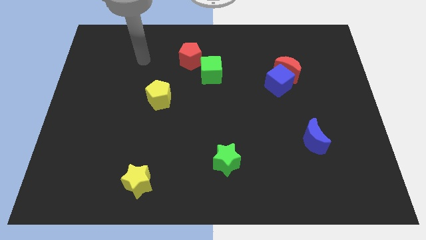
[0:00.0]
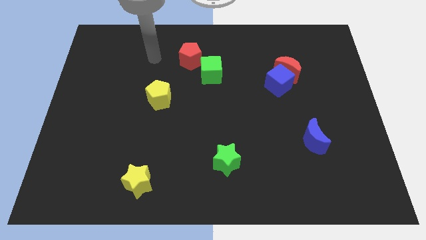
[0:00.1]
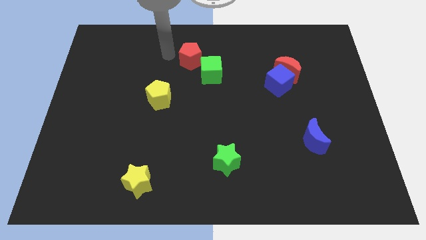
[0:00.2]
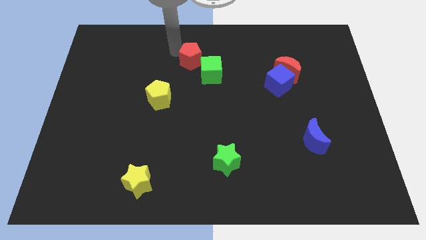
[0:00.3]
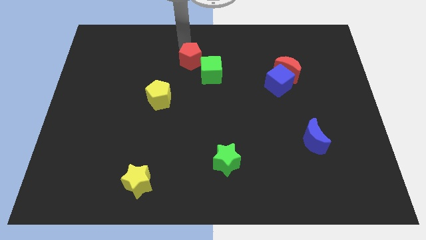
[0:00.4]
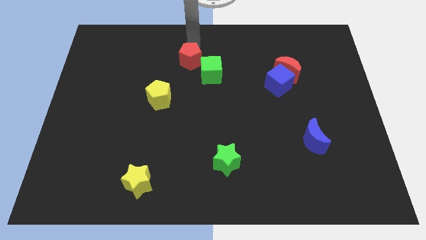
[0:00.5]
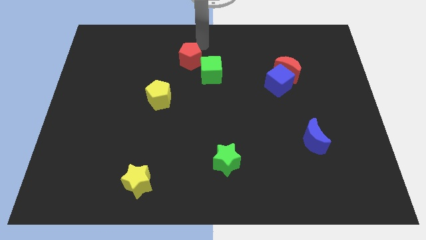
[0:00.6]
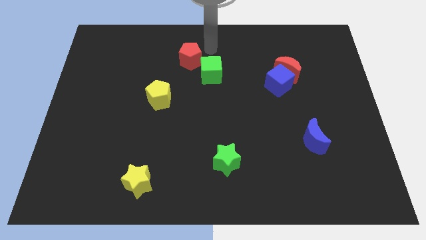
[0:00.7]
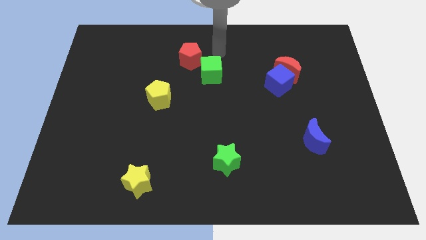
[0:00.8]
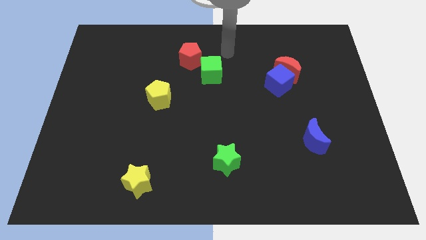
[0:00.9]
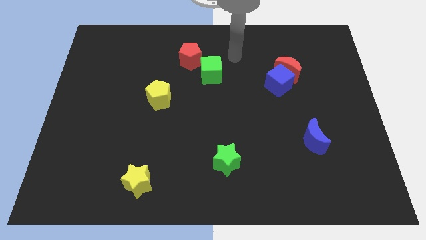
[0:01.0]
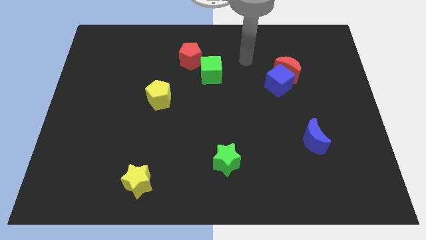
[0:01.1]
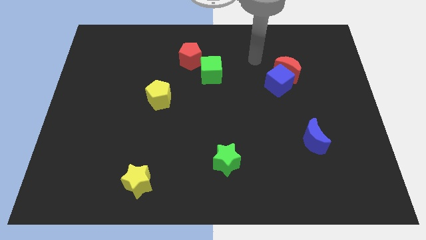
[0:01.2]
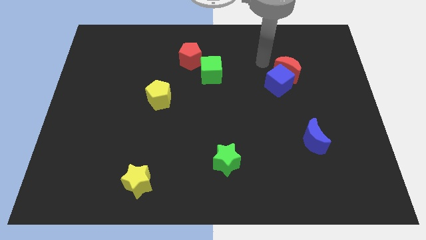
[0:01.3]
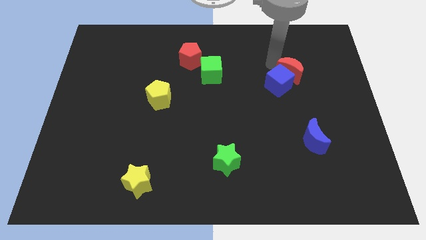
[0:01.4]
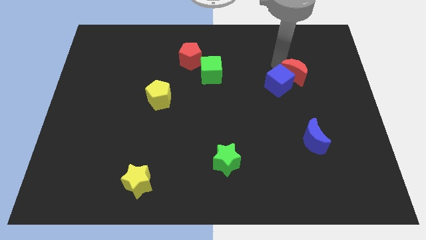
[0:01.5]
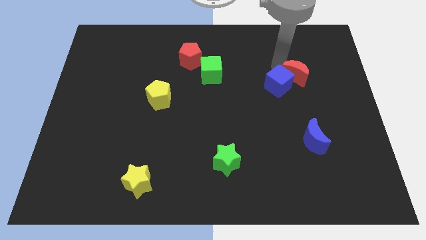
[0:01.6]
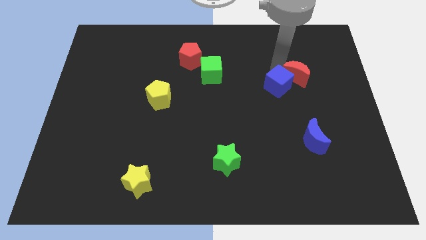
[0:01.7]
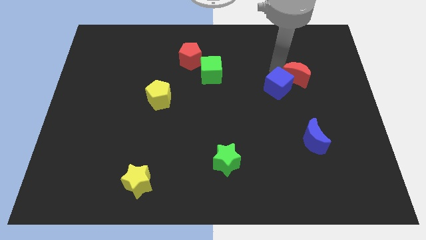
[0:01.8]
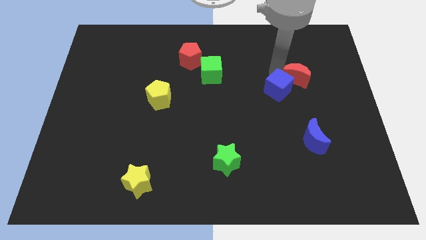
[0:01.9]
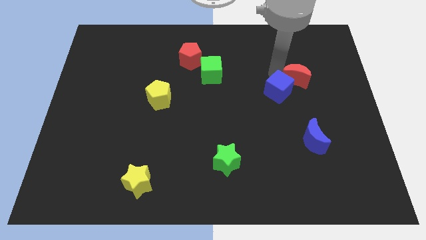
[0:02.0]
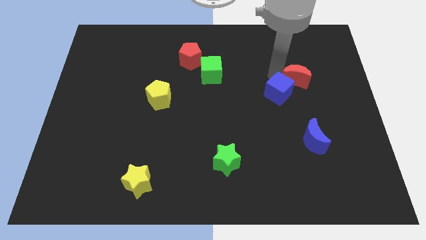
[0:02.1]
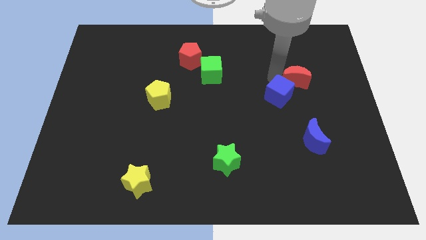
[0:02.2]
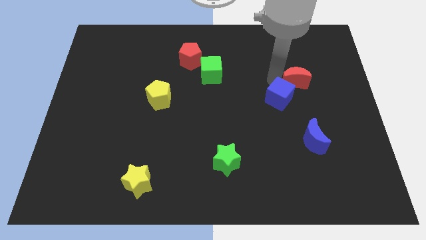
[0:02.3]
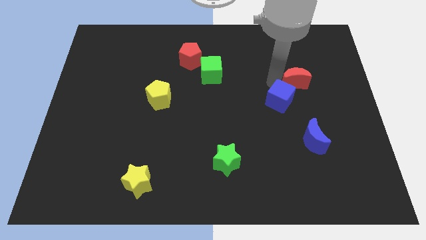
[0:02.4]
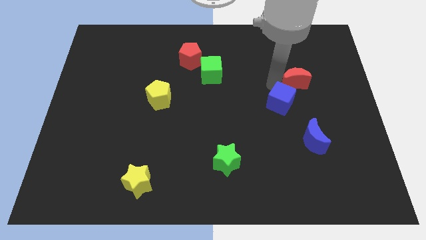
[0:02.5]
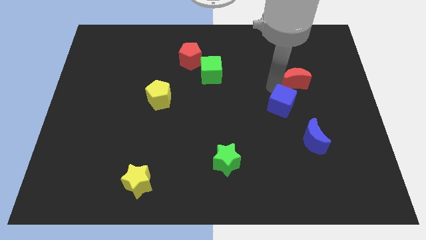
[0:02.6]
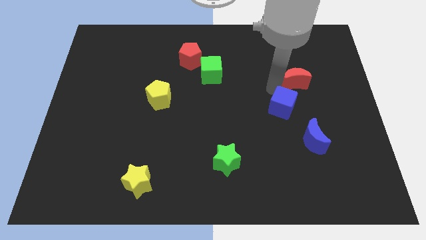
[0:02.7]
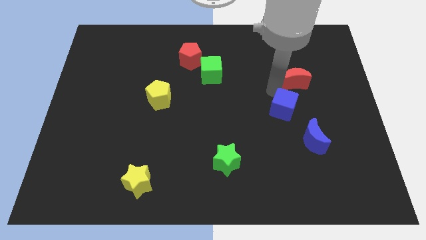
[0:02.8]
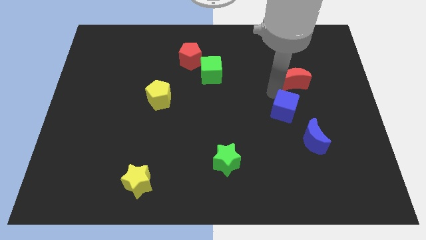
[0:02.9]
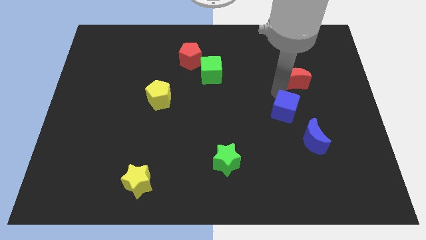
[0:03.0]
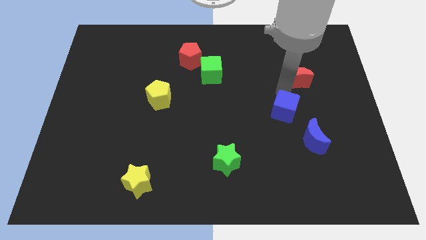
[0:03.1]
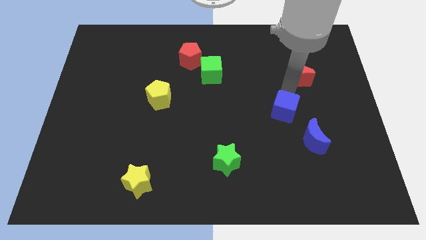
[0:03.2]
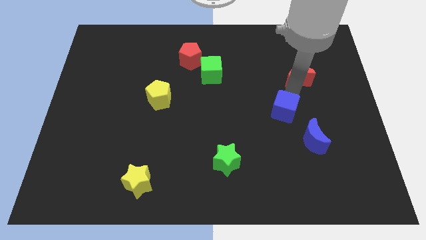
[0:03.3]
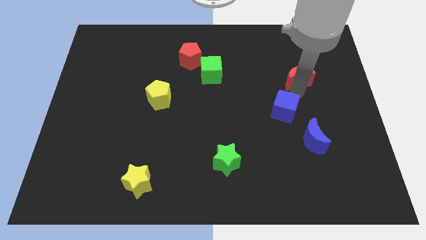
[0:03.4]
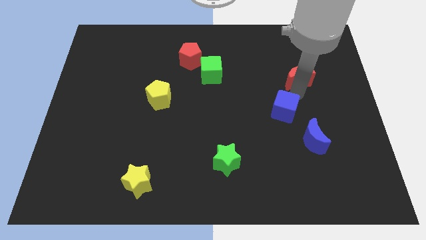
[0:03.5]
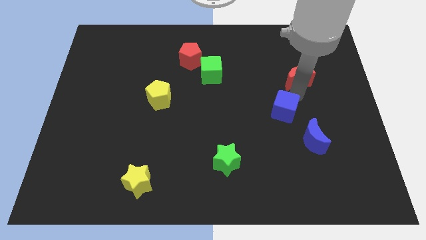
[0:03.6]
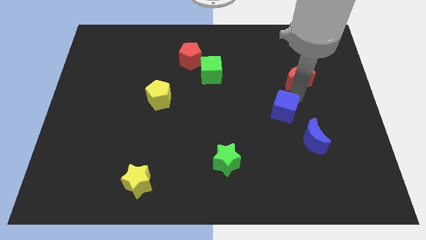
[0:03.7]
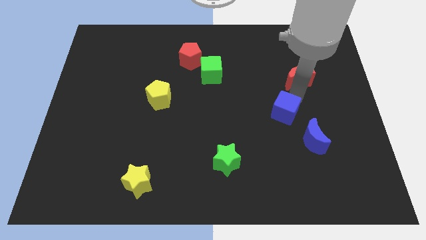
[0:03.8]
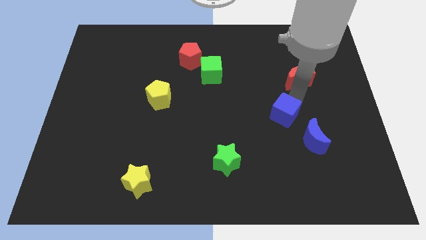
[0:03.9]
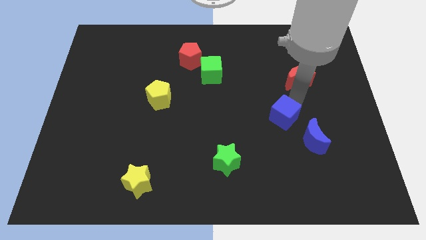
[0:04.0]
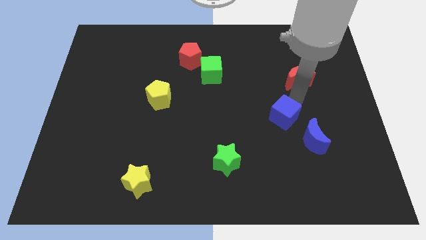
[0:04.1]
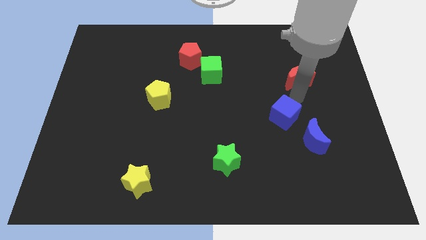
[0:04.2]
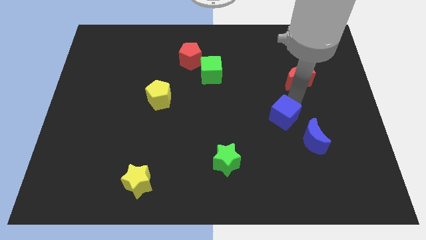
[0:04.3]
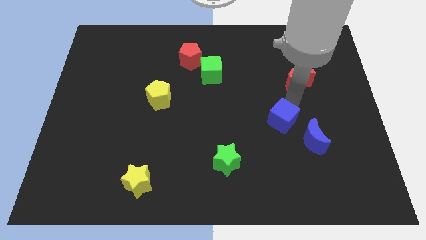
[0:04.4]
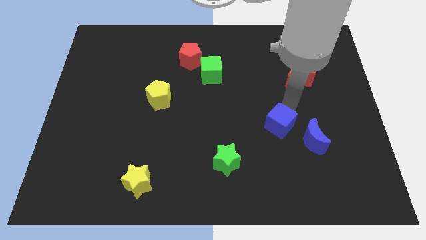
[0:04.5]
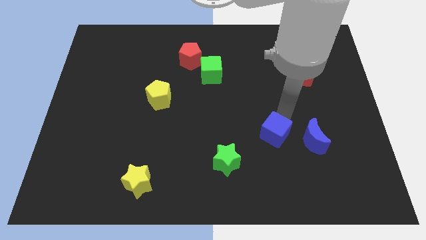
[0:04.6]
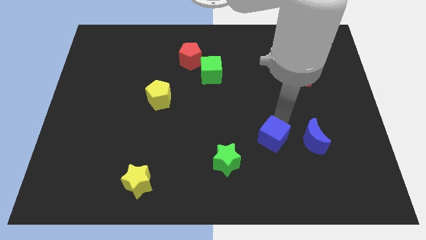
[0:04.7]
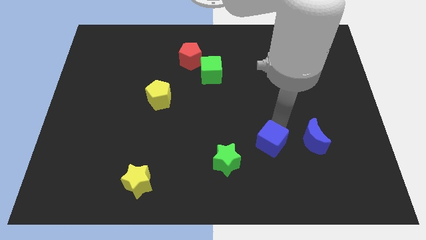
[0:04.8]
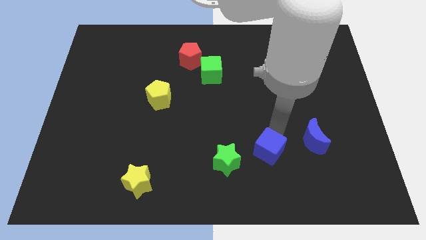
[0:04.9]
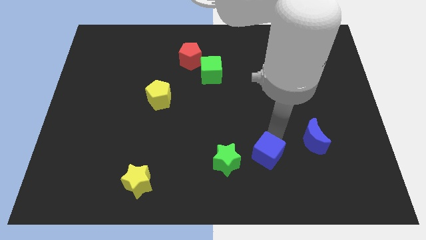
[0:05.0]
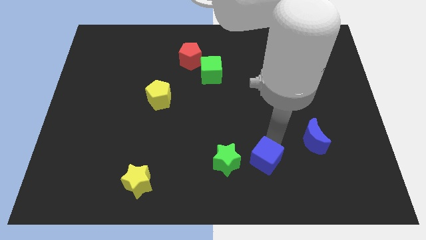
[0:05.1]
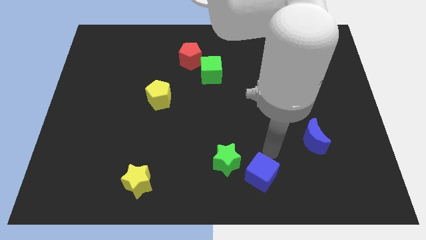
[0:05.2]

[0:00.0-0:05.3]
push the blue cube to the bottom

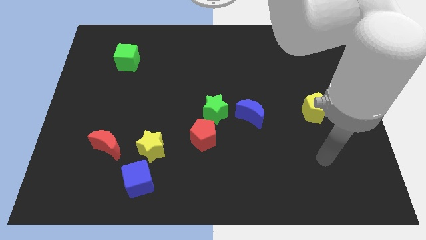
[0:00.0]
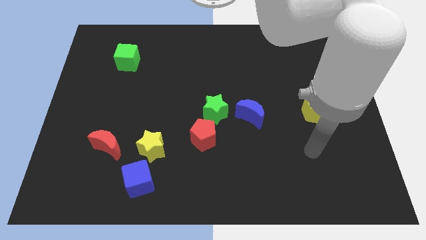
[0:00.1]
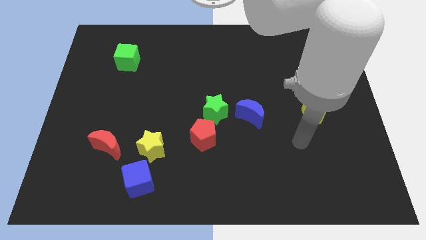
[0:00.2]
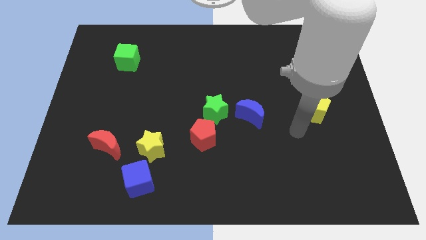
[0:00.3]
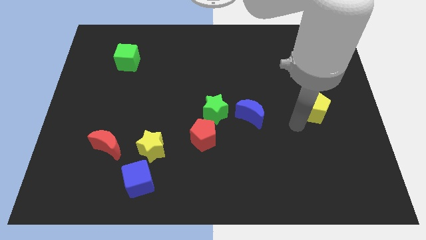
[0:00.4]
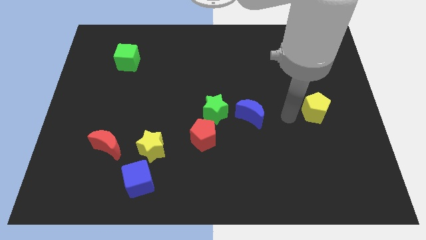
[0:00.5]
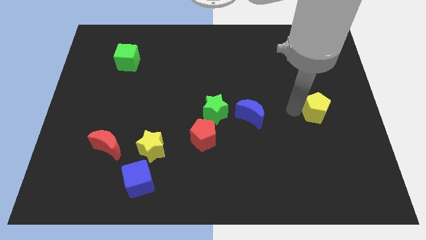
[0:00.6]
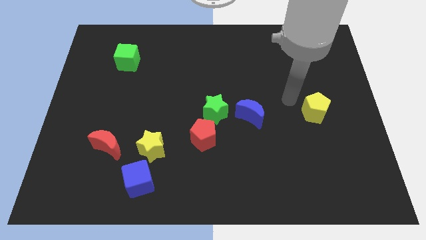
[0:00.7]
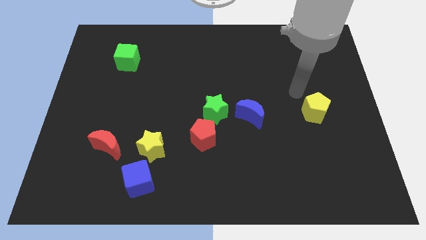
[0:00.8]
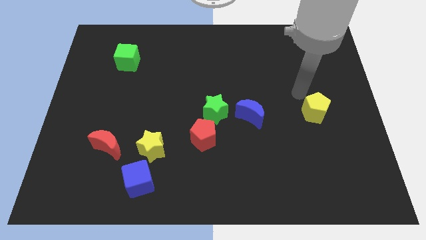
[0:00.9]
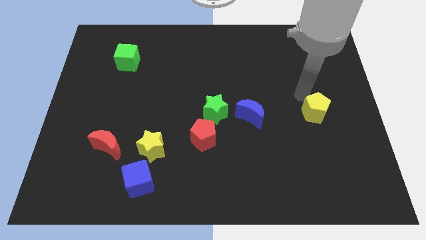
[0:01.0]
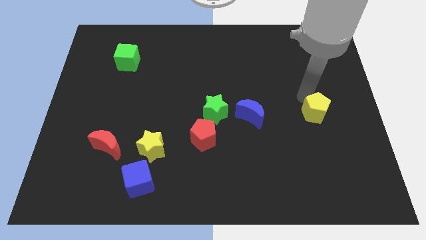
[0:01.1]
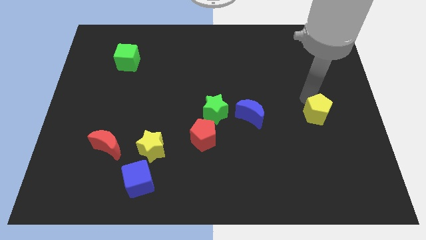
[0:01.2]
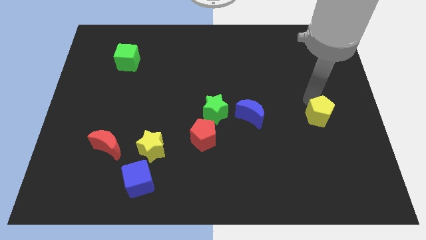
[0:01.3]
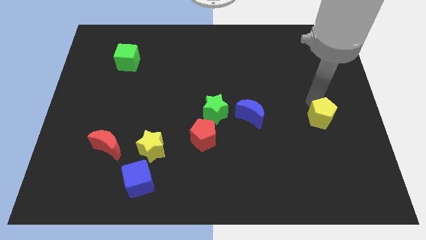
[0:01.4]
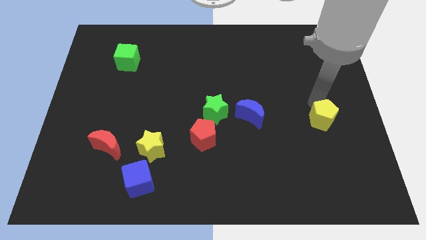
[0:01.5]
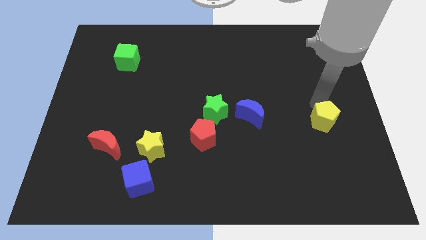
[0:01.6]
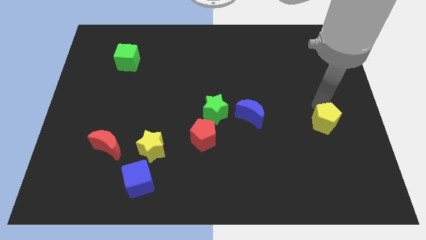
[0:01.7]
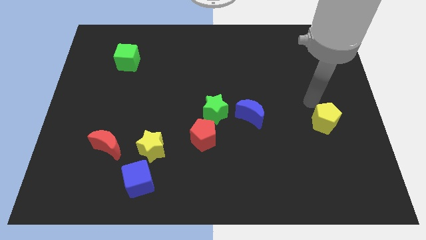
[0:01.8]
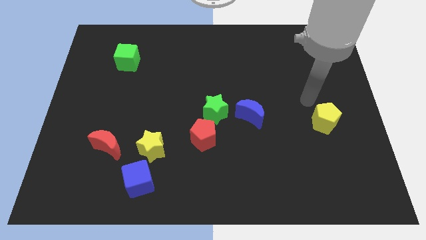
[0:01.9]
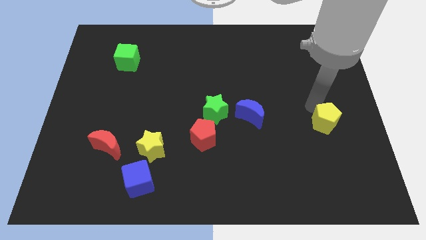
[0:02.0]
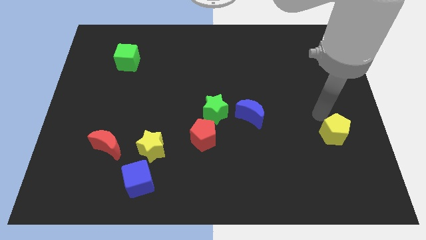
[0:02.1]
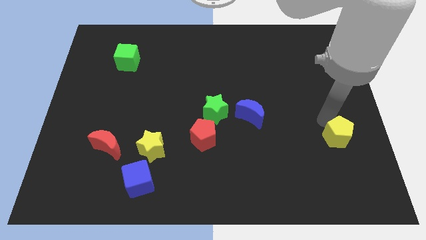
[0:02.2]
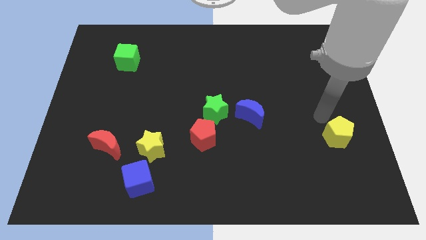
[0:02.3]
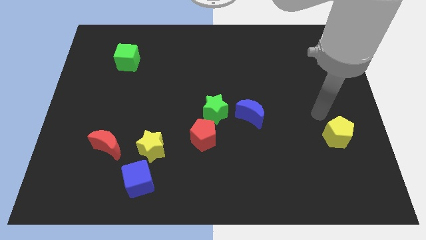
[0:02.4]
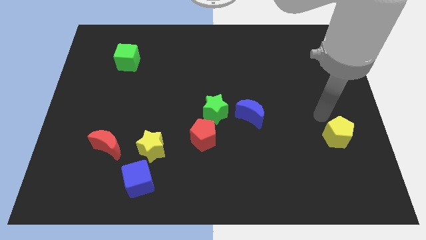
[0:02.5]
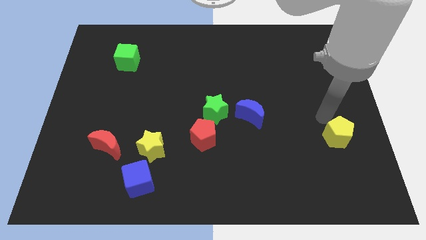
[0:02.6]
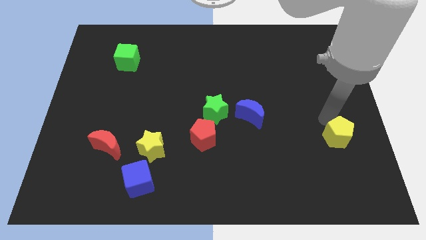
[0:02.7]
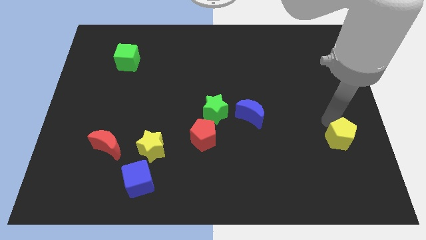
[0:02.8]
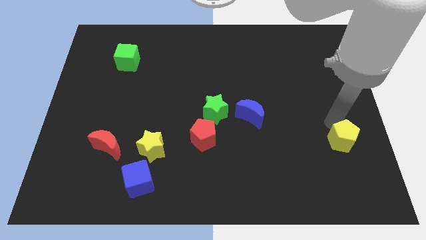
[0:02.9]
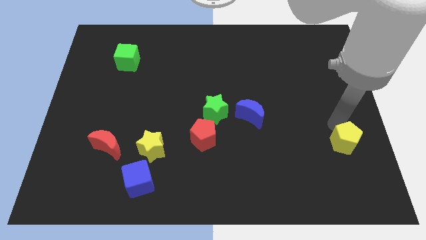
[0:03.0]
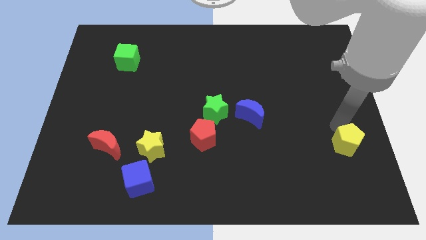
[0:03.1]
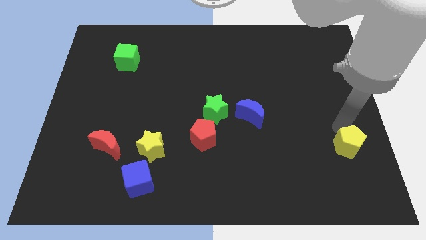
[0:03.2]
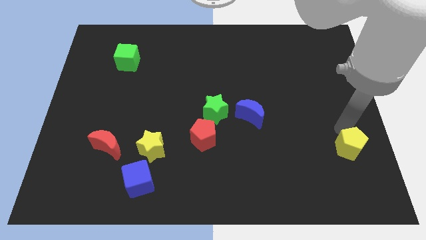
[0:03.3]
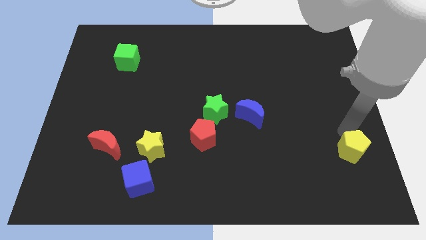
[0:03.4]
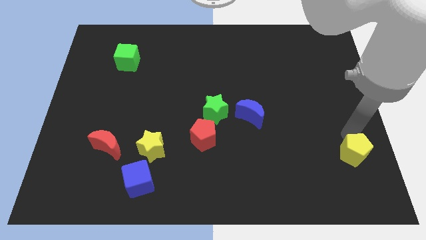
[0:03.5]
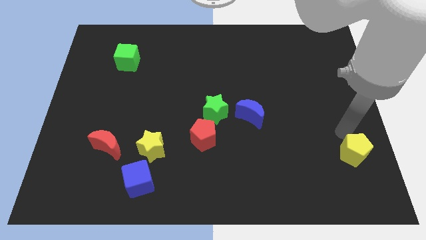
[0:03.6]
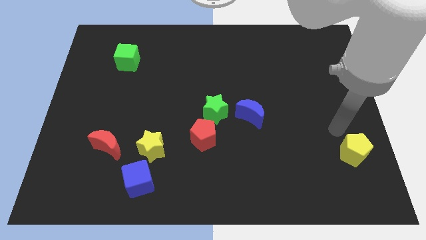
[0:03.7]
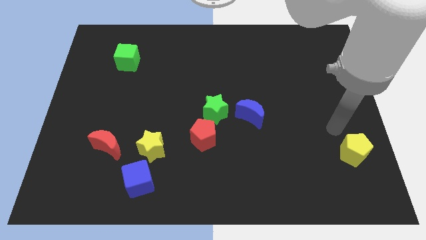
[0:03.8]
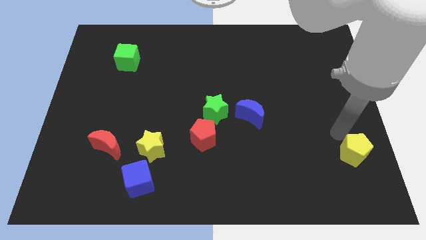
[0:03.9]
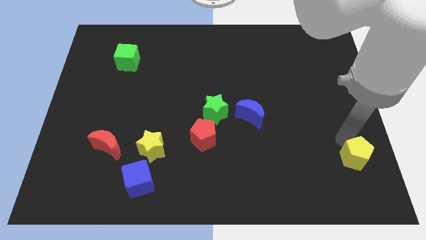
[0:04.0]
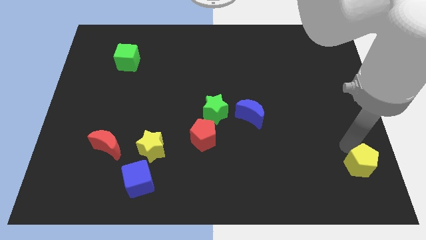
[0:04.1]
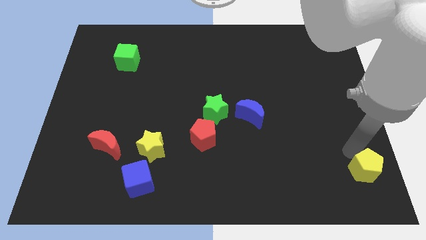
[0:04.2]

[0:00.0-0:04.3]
put the yellow pentagon to the lower right corner
